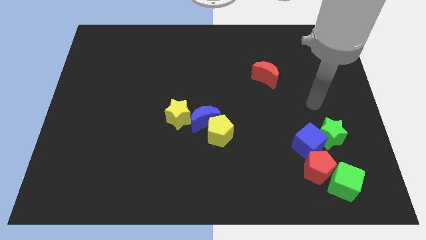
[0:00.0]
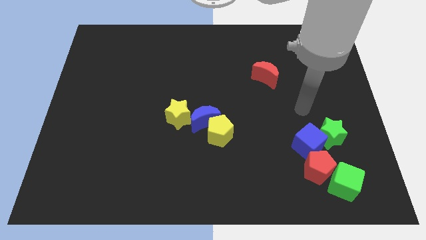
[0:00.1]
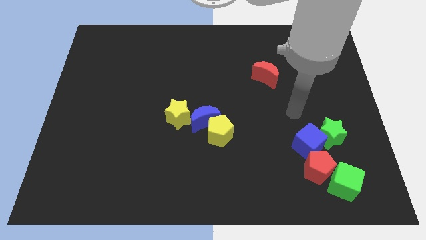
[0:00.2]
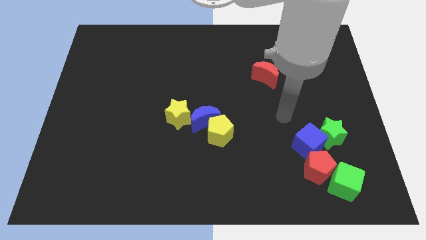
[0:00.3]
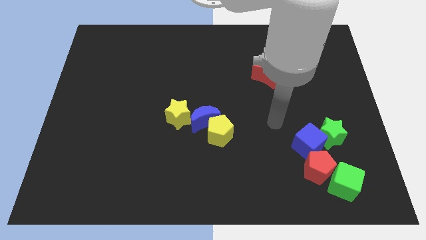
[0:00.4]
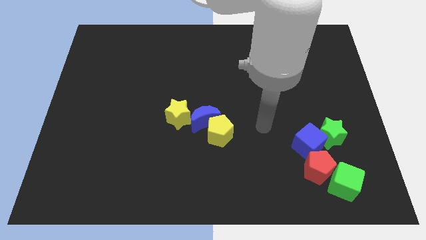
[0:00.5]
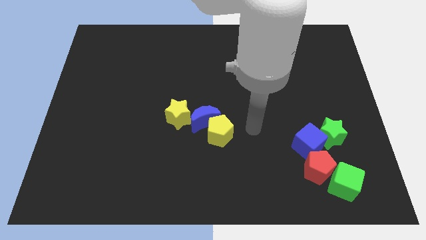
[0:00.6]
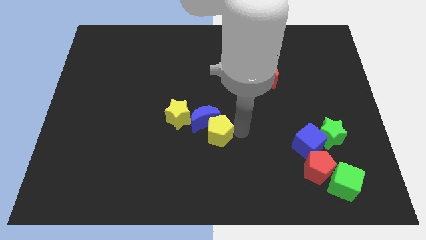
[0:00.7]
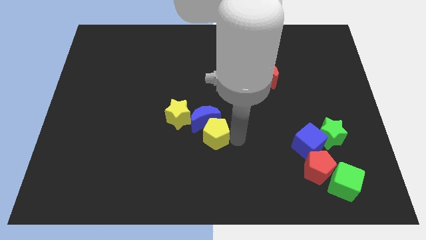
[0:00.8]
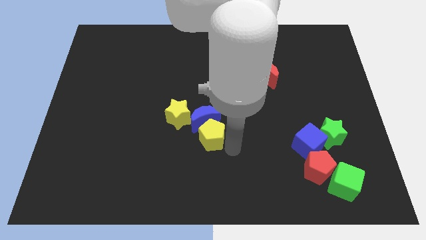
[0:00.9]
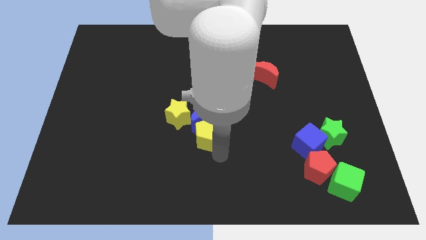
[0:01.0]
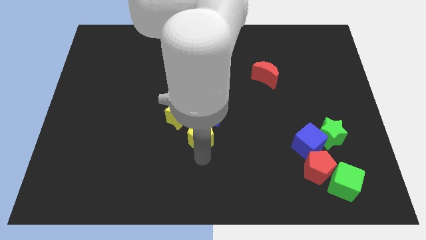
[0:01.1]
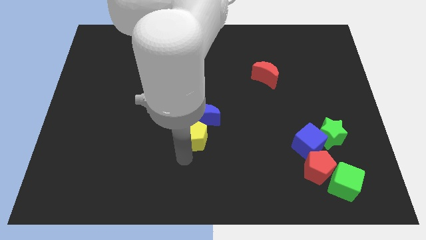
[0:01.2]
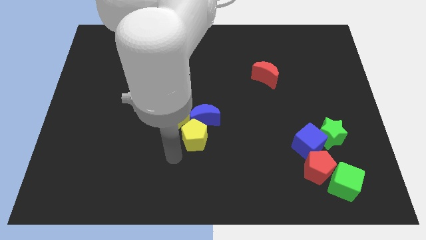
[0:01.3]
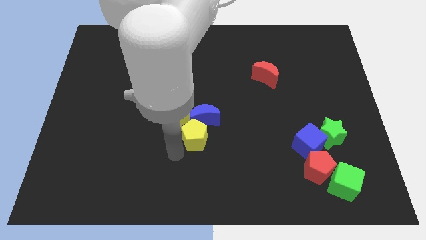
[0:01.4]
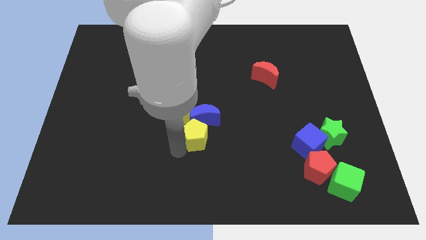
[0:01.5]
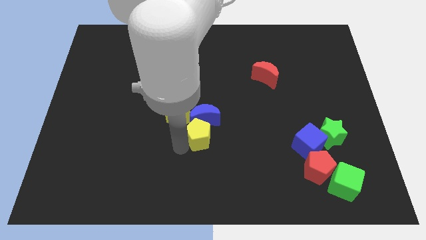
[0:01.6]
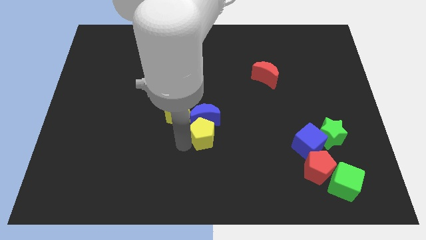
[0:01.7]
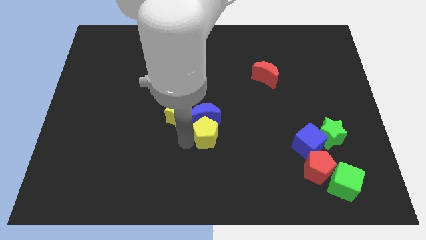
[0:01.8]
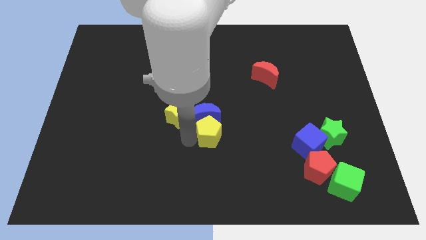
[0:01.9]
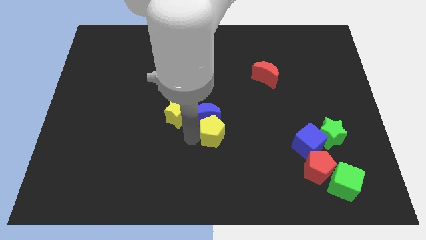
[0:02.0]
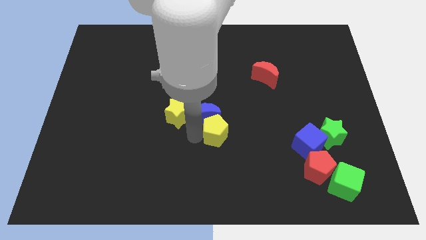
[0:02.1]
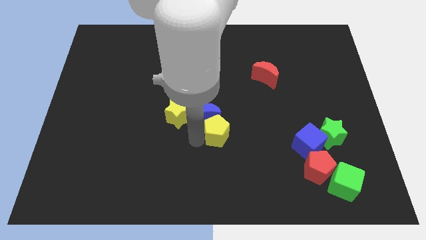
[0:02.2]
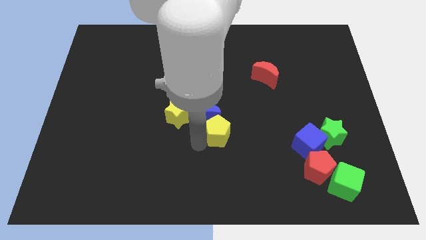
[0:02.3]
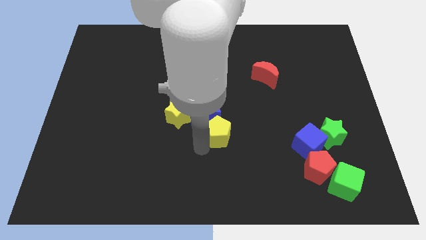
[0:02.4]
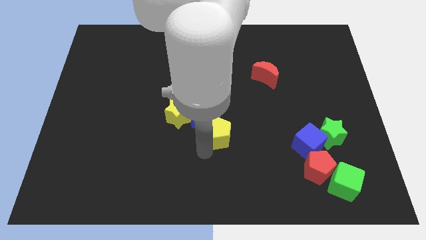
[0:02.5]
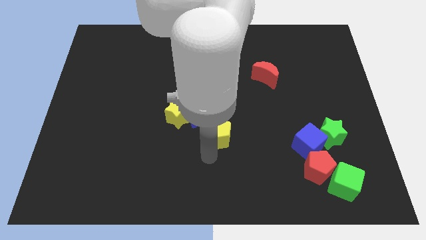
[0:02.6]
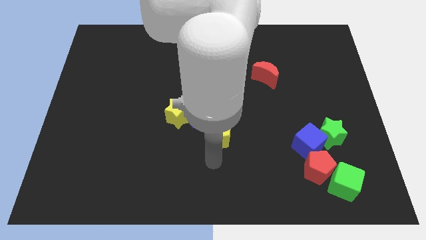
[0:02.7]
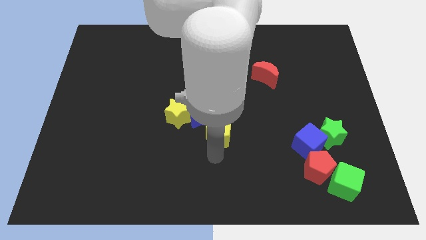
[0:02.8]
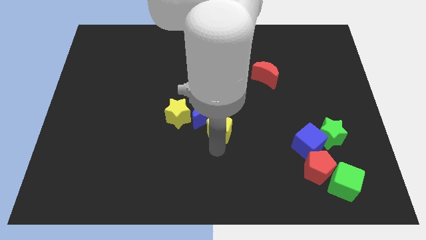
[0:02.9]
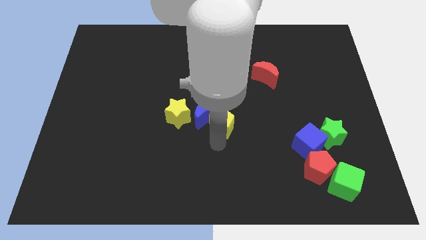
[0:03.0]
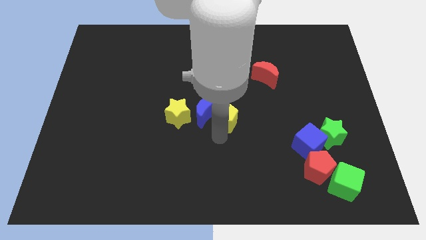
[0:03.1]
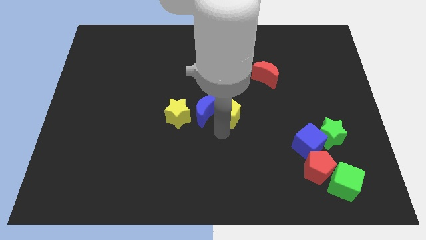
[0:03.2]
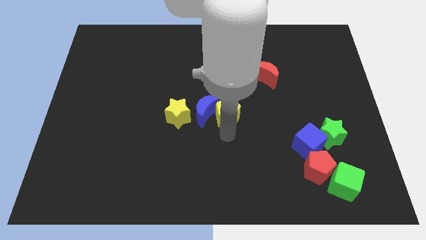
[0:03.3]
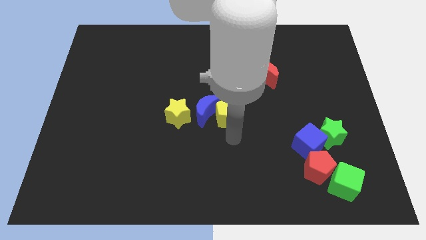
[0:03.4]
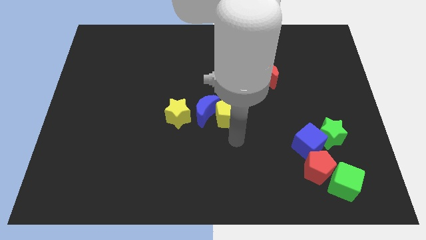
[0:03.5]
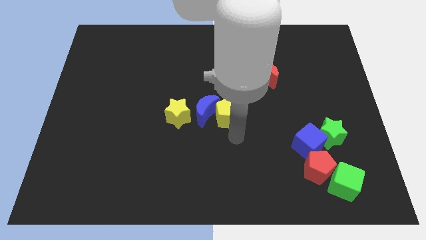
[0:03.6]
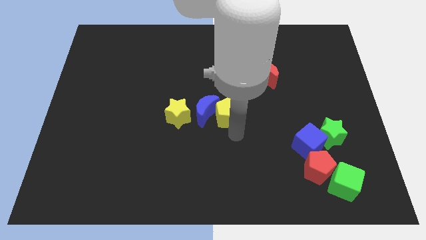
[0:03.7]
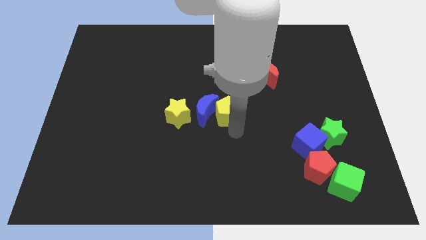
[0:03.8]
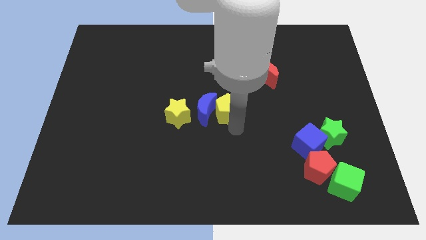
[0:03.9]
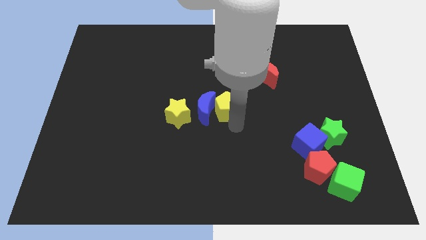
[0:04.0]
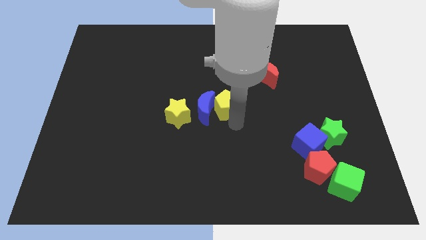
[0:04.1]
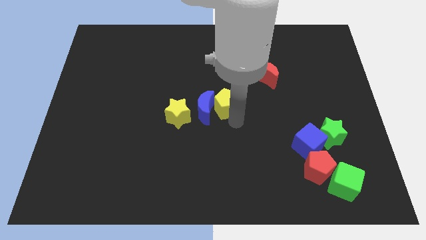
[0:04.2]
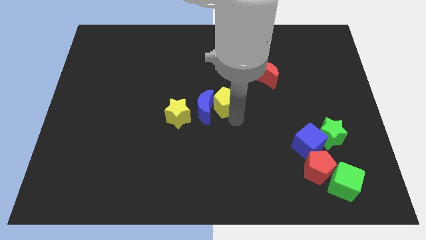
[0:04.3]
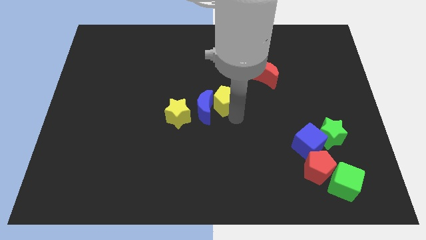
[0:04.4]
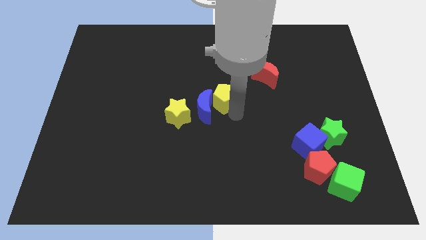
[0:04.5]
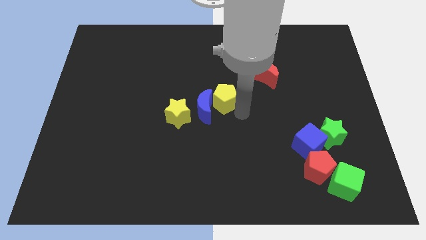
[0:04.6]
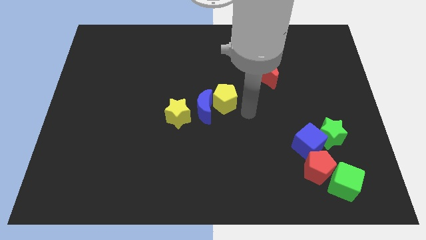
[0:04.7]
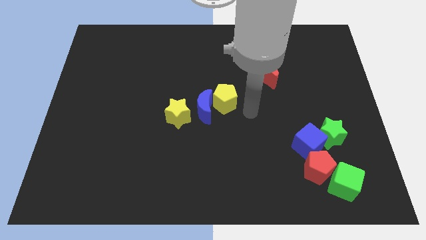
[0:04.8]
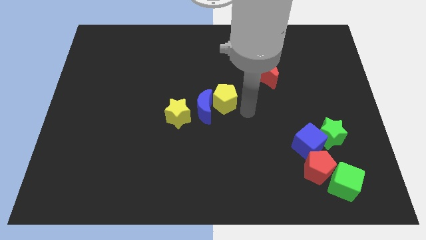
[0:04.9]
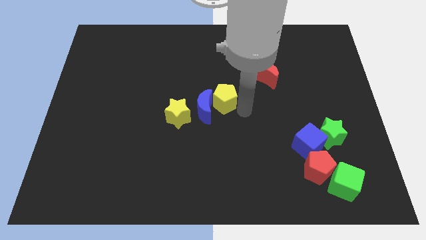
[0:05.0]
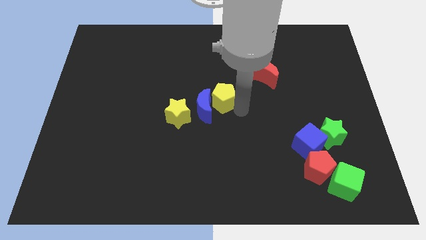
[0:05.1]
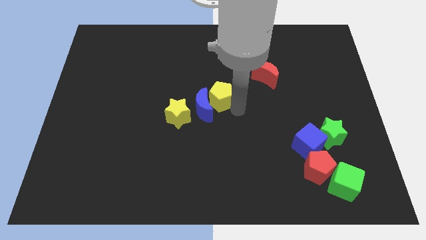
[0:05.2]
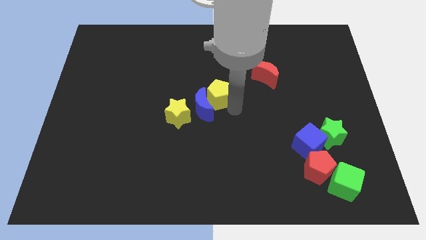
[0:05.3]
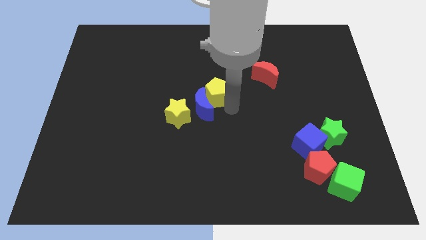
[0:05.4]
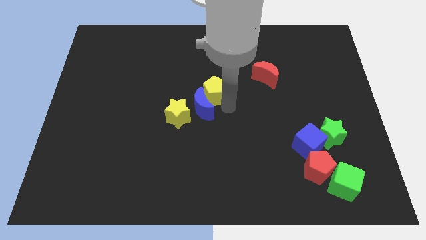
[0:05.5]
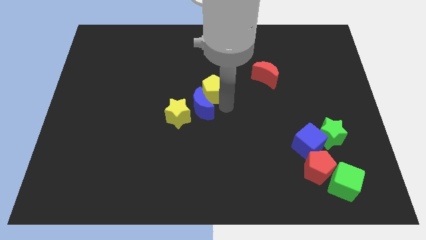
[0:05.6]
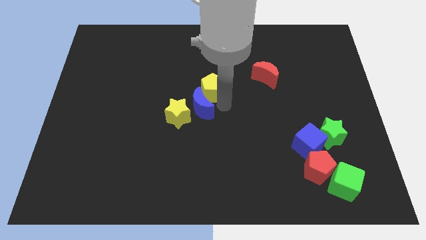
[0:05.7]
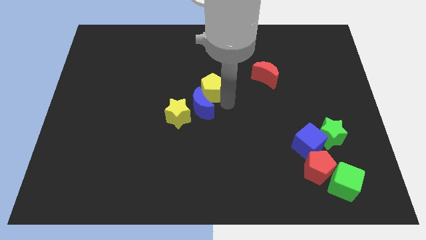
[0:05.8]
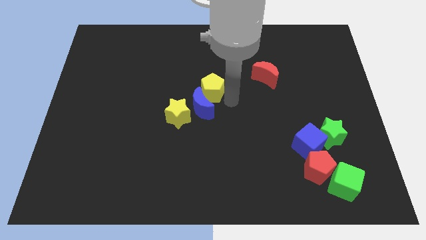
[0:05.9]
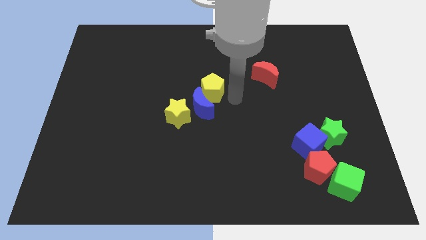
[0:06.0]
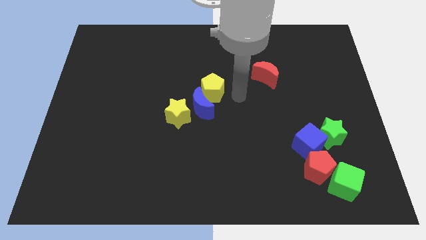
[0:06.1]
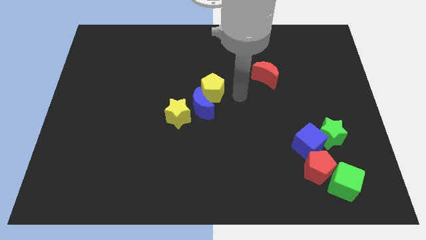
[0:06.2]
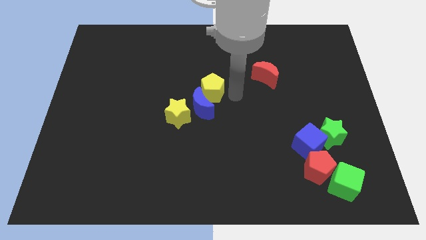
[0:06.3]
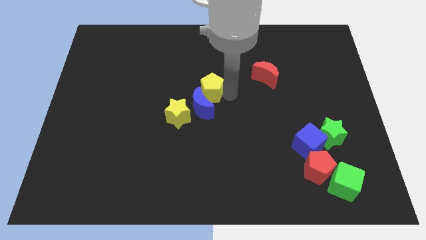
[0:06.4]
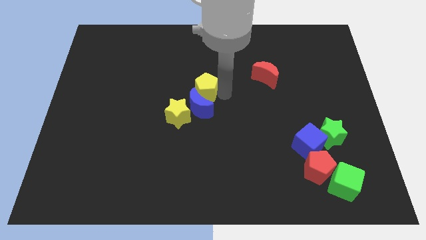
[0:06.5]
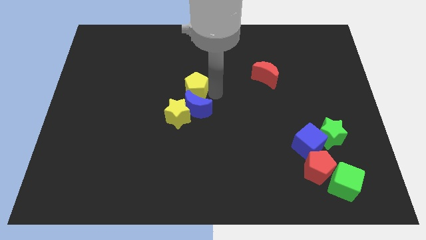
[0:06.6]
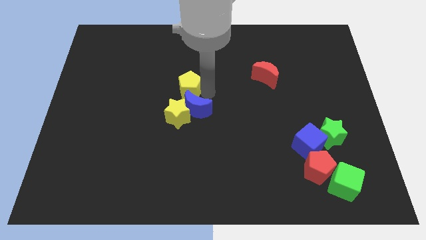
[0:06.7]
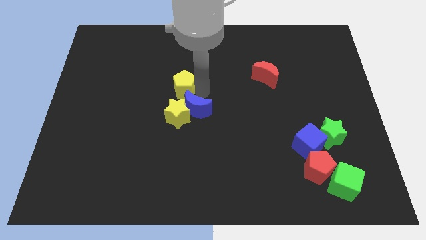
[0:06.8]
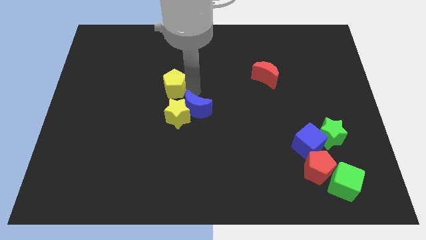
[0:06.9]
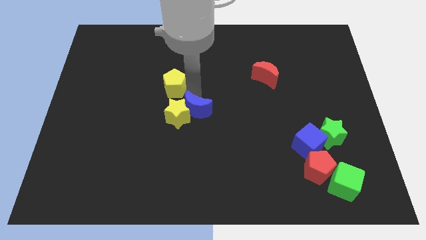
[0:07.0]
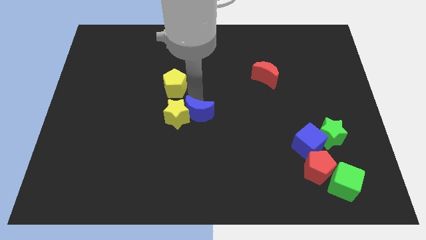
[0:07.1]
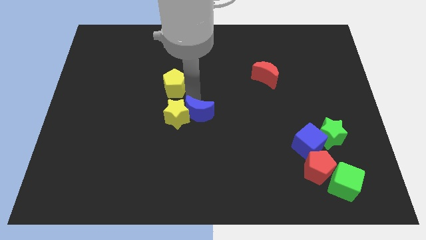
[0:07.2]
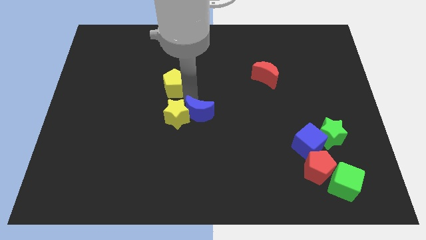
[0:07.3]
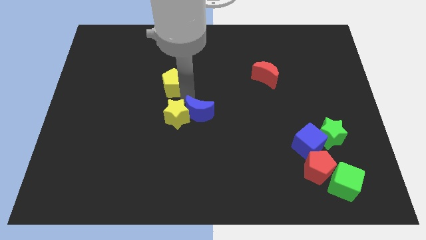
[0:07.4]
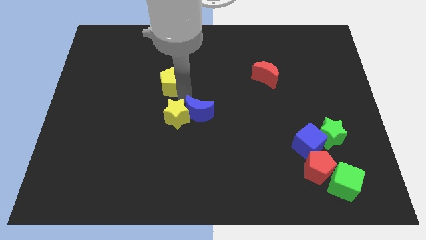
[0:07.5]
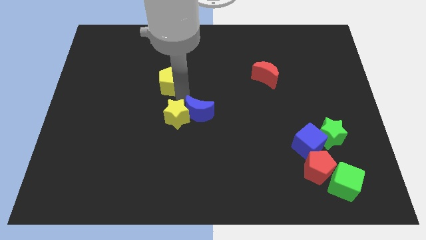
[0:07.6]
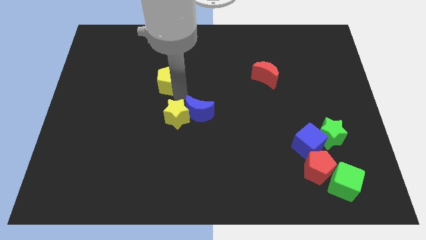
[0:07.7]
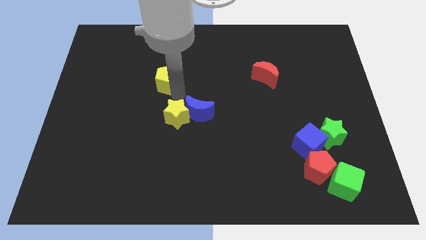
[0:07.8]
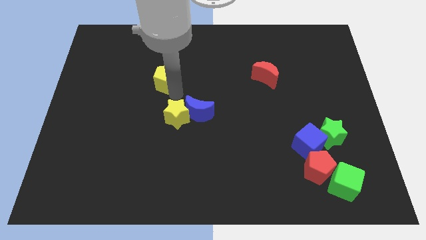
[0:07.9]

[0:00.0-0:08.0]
slide the yellow pentagon diagonally up and left

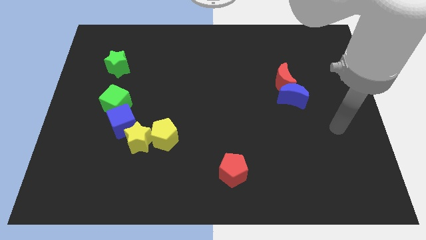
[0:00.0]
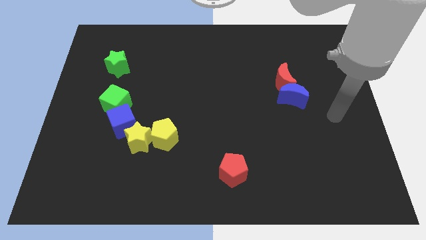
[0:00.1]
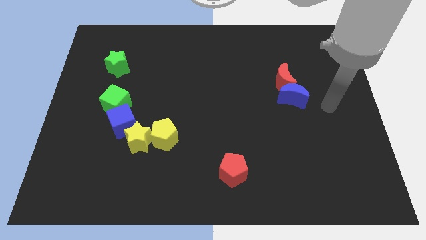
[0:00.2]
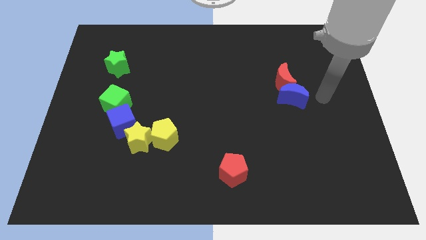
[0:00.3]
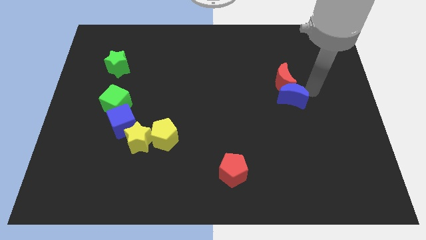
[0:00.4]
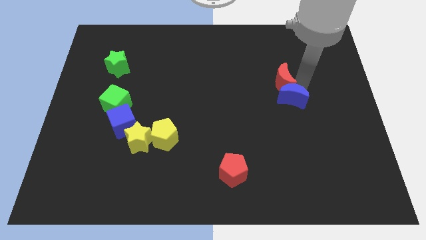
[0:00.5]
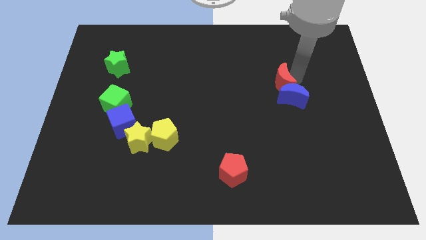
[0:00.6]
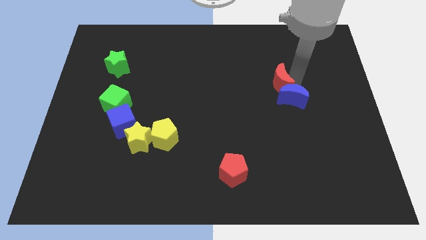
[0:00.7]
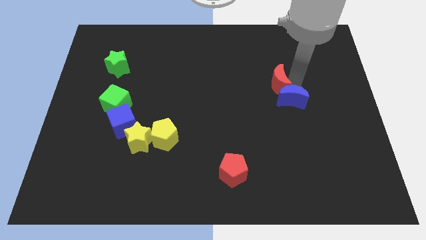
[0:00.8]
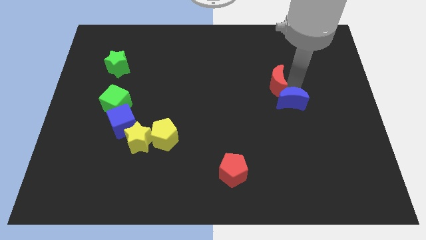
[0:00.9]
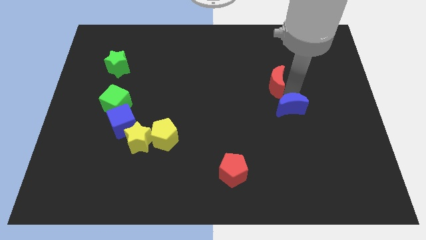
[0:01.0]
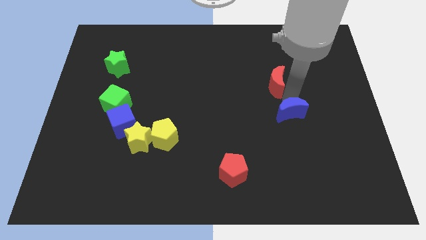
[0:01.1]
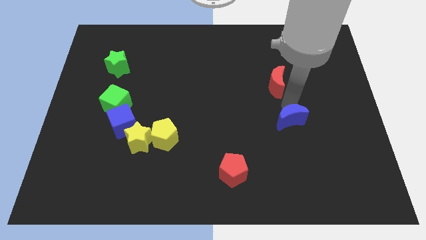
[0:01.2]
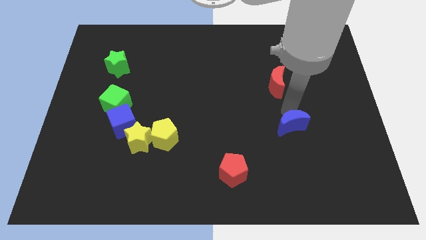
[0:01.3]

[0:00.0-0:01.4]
slide the blue moon downwards a little
